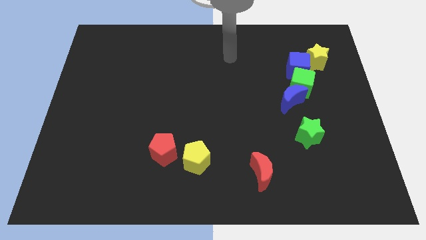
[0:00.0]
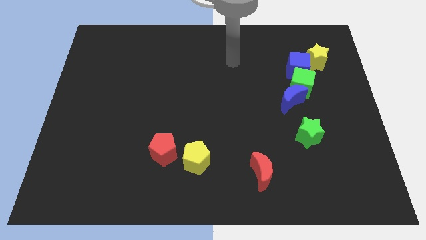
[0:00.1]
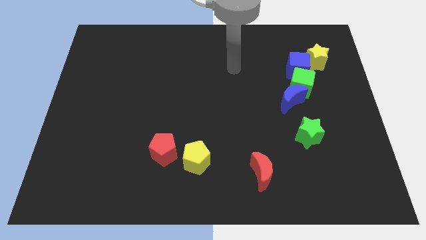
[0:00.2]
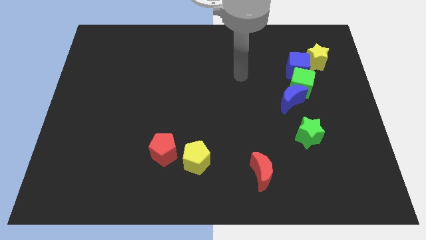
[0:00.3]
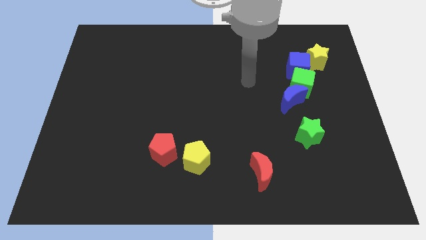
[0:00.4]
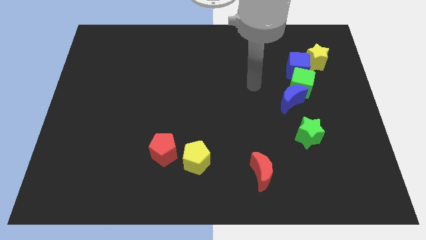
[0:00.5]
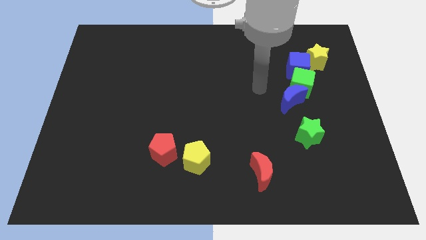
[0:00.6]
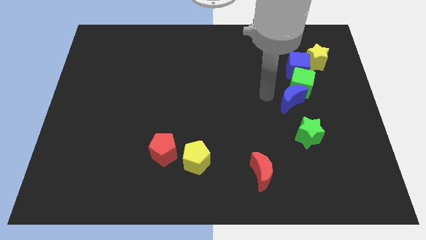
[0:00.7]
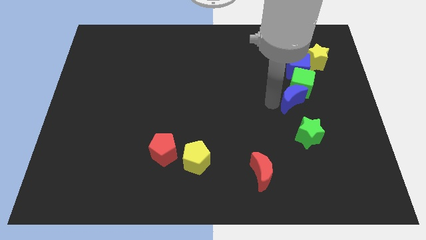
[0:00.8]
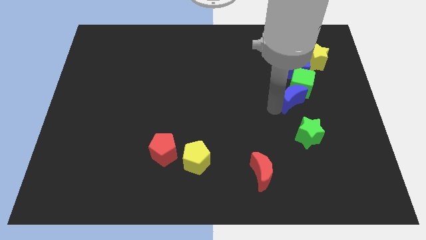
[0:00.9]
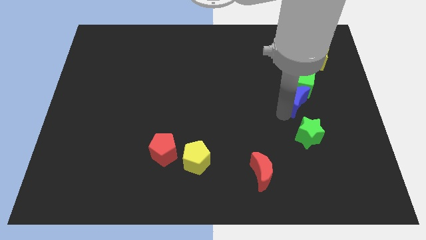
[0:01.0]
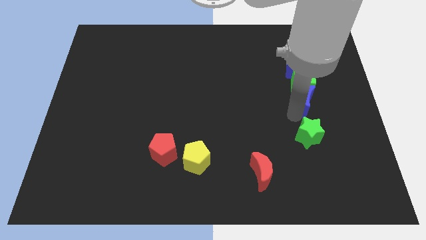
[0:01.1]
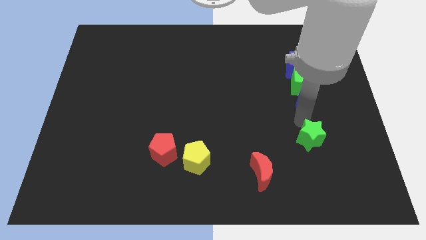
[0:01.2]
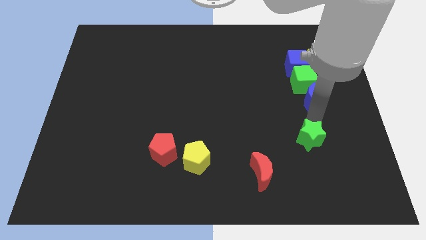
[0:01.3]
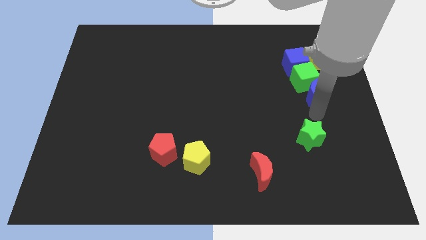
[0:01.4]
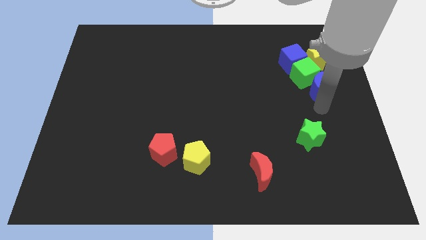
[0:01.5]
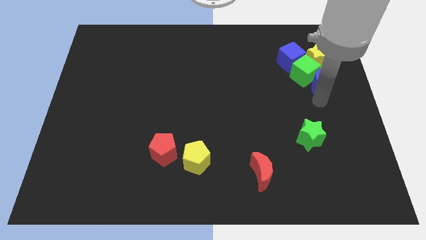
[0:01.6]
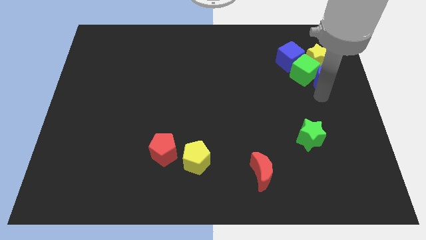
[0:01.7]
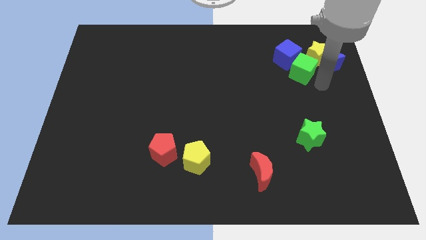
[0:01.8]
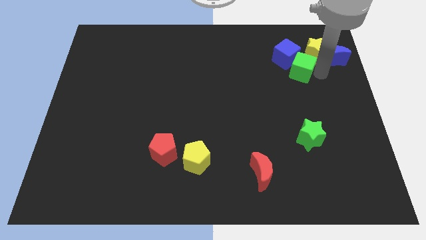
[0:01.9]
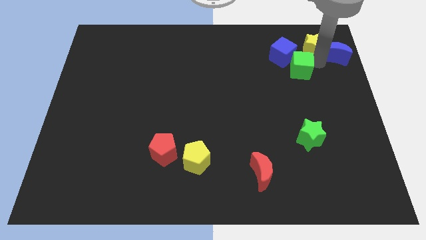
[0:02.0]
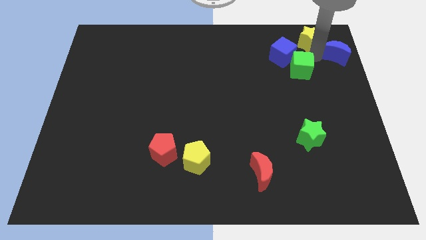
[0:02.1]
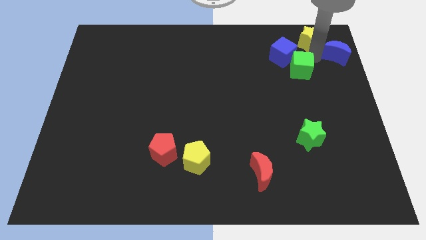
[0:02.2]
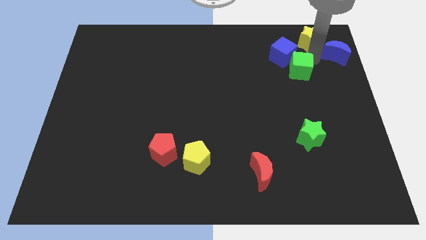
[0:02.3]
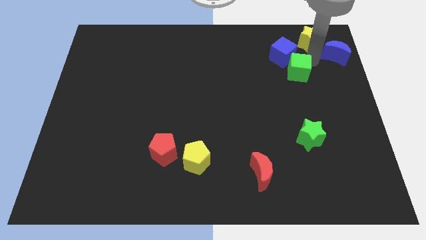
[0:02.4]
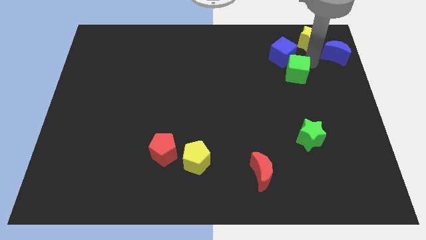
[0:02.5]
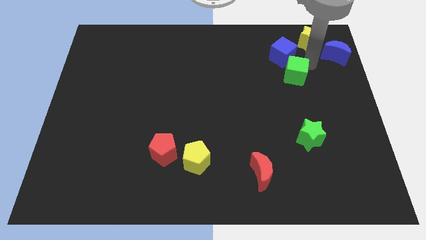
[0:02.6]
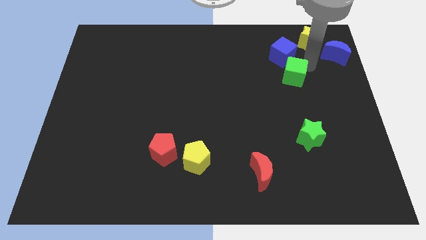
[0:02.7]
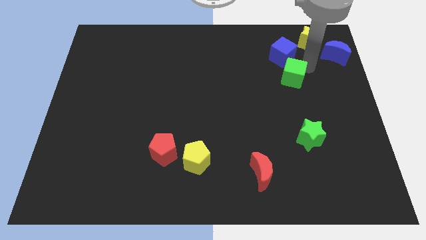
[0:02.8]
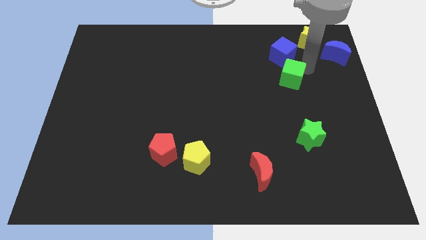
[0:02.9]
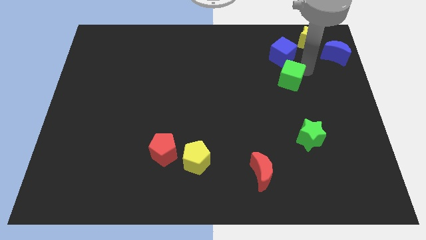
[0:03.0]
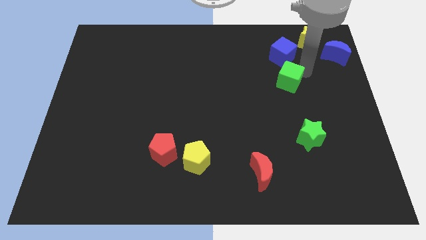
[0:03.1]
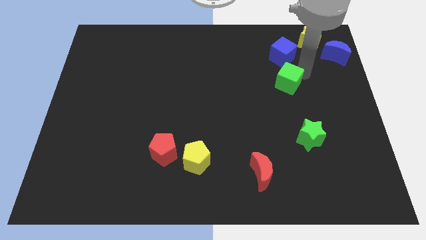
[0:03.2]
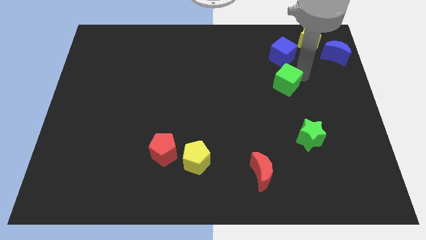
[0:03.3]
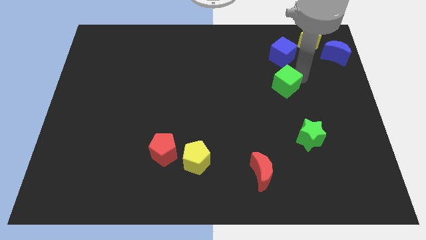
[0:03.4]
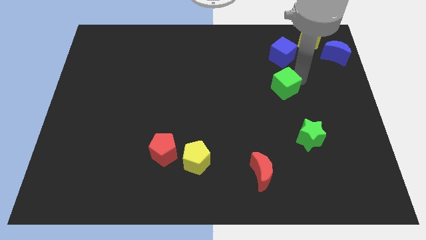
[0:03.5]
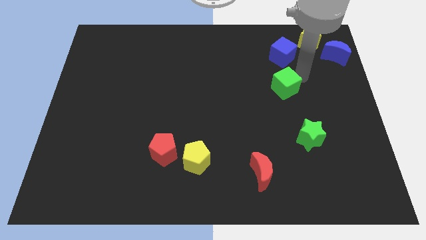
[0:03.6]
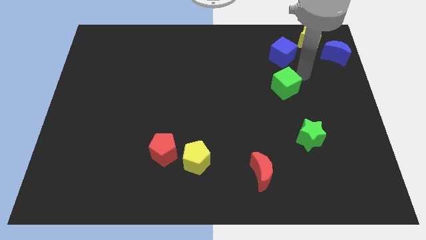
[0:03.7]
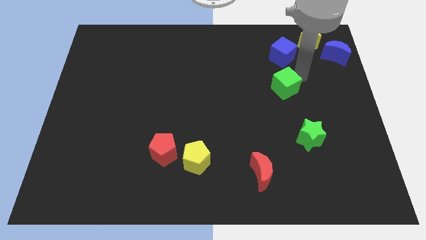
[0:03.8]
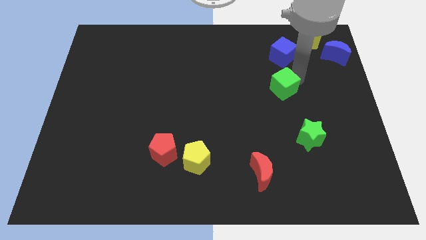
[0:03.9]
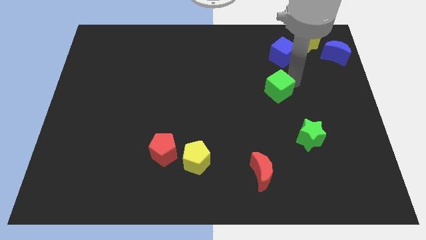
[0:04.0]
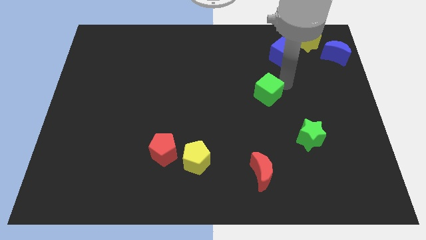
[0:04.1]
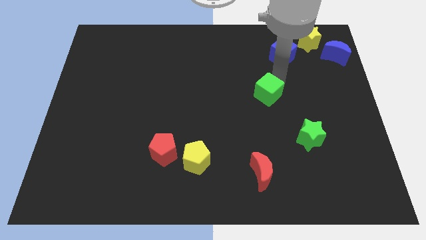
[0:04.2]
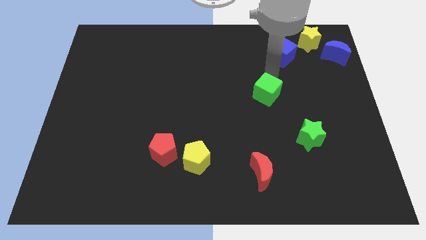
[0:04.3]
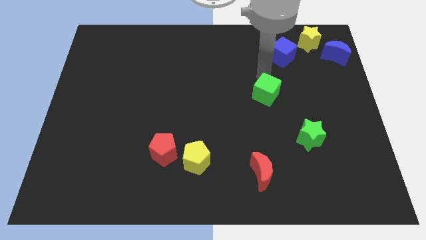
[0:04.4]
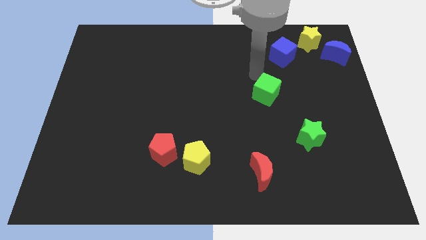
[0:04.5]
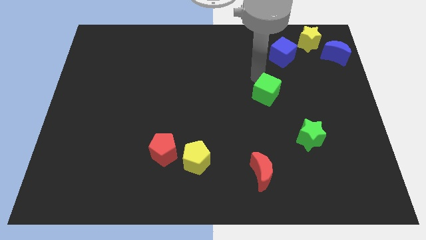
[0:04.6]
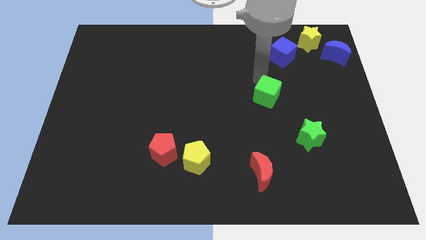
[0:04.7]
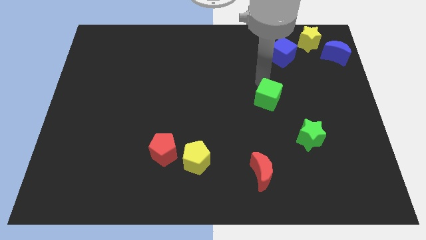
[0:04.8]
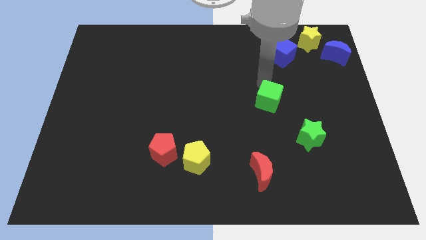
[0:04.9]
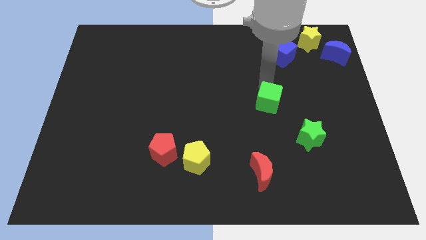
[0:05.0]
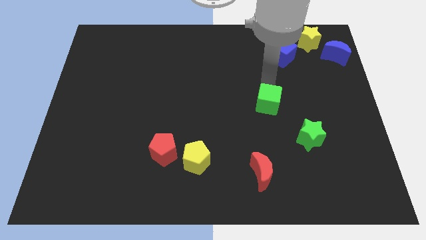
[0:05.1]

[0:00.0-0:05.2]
push the green cube to the top left of the green star

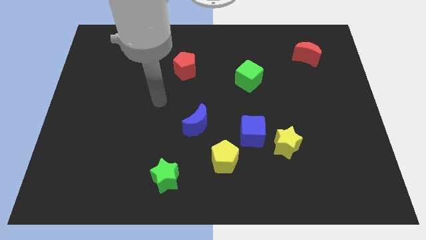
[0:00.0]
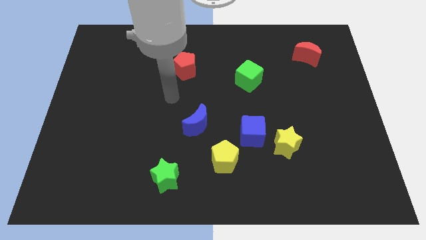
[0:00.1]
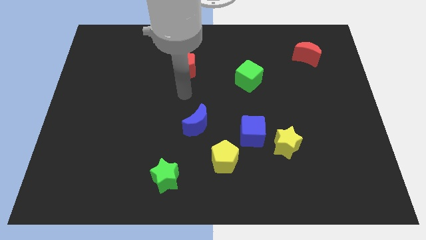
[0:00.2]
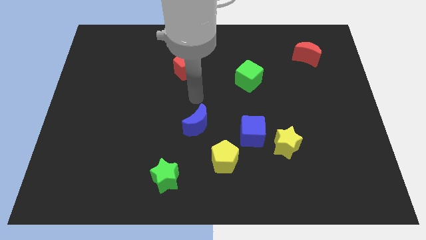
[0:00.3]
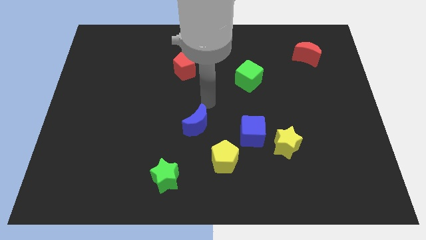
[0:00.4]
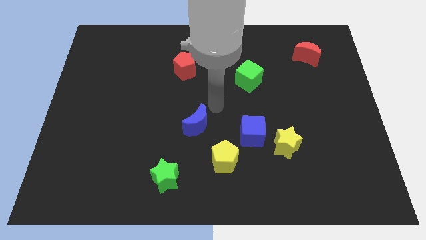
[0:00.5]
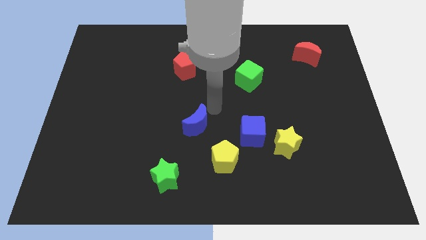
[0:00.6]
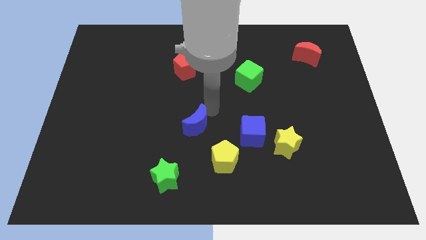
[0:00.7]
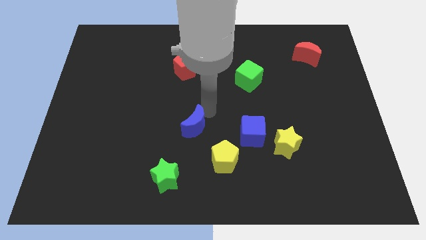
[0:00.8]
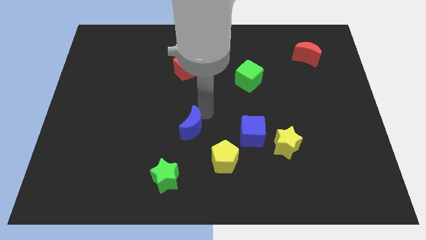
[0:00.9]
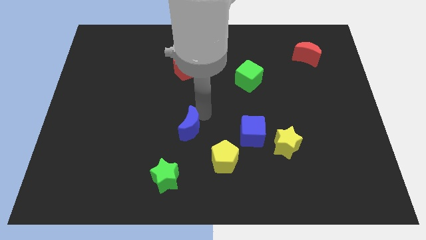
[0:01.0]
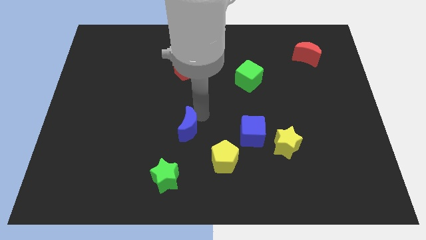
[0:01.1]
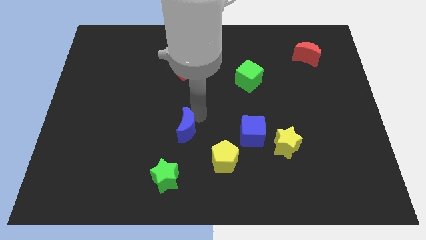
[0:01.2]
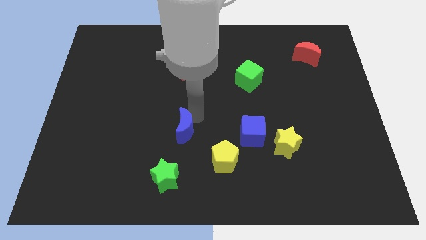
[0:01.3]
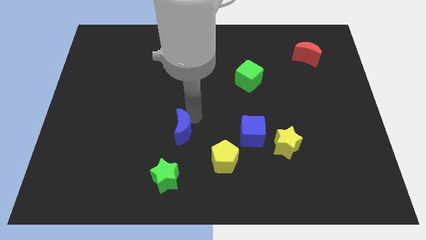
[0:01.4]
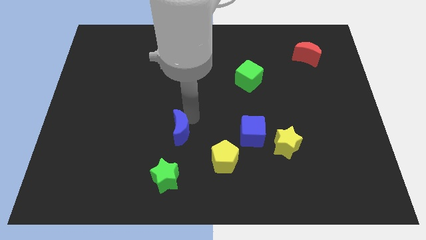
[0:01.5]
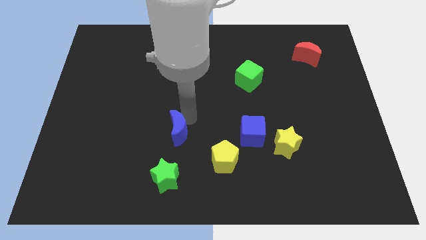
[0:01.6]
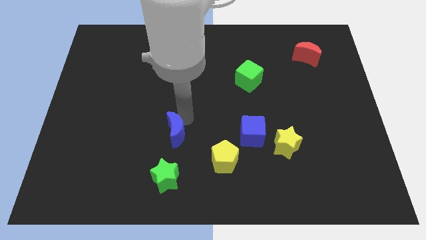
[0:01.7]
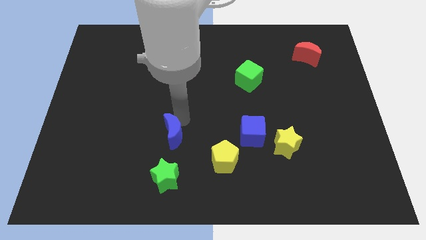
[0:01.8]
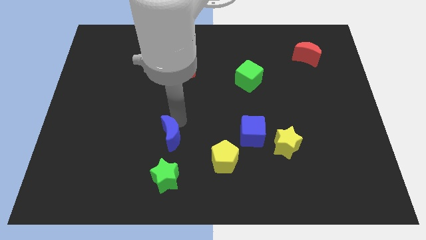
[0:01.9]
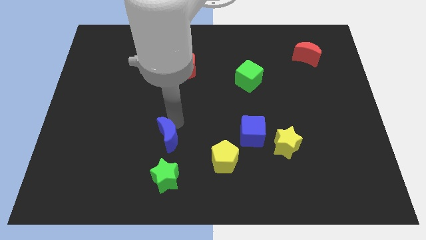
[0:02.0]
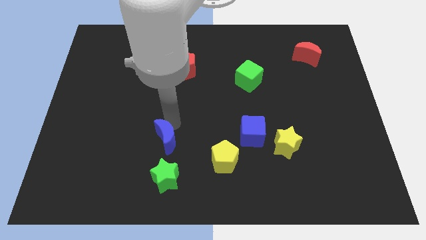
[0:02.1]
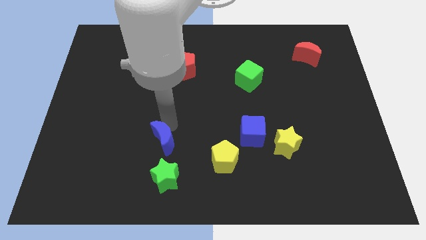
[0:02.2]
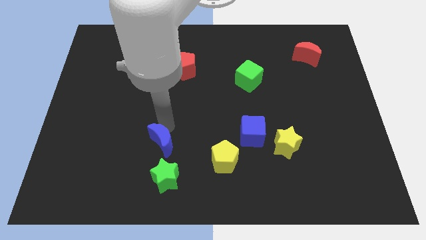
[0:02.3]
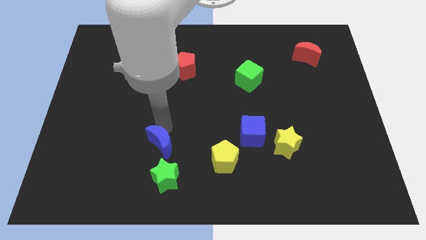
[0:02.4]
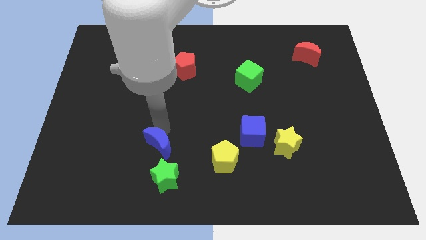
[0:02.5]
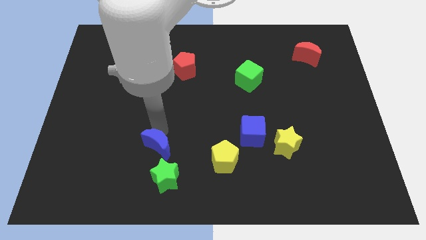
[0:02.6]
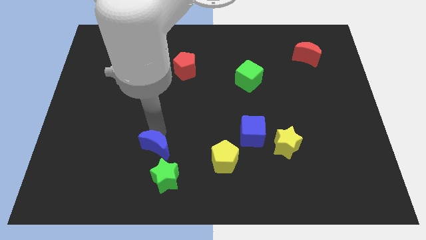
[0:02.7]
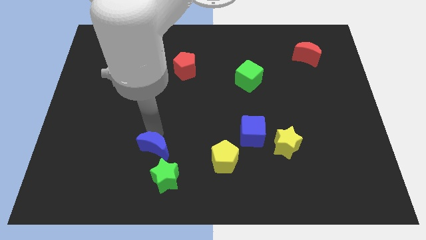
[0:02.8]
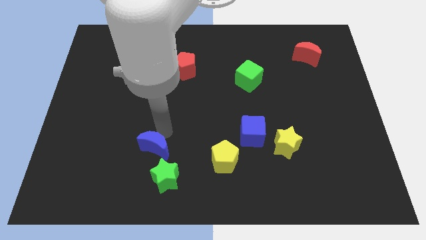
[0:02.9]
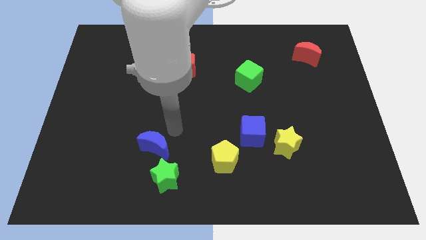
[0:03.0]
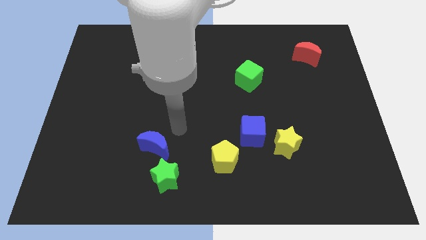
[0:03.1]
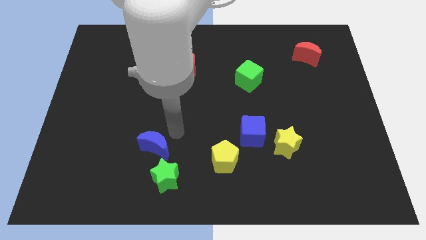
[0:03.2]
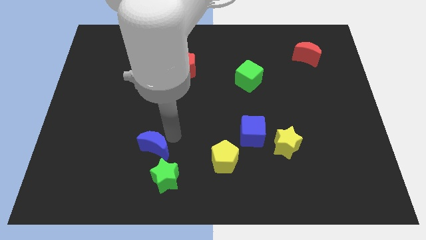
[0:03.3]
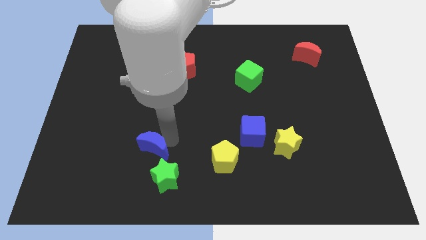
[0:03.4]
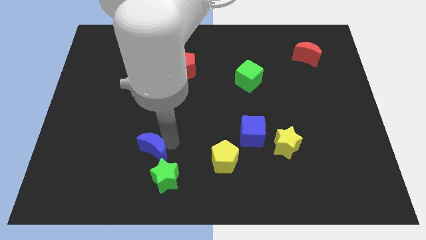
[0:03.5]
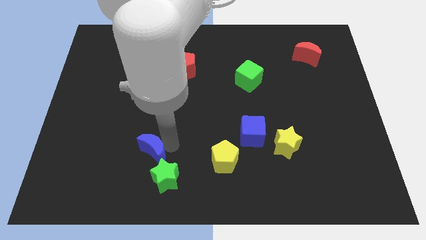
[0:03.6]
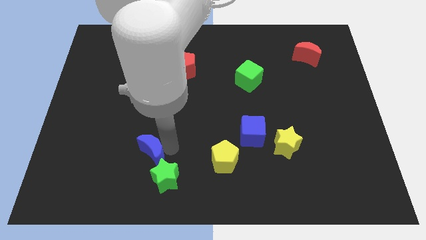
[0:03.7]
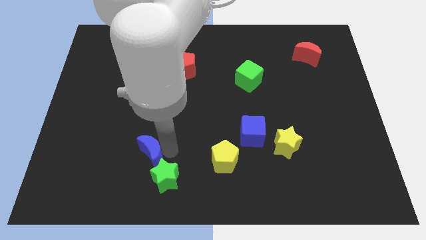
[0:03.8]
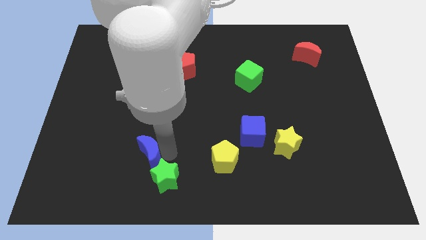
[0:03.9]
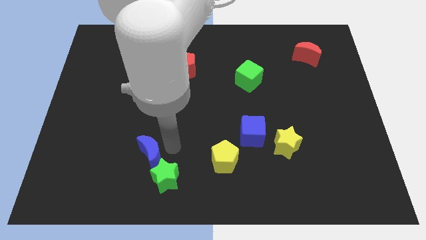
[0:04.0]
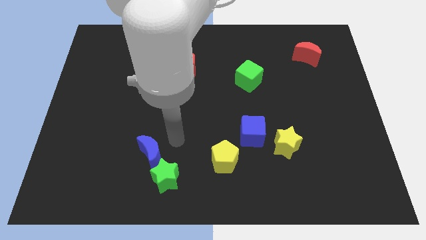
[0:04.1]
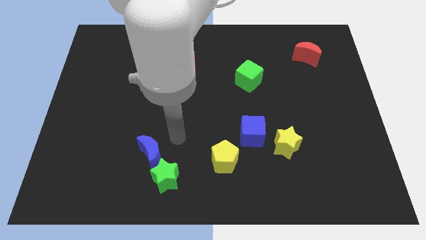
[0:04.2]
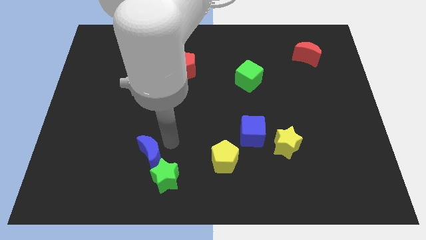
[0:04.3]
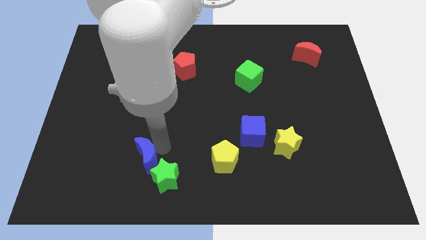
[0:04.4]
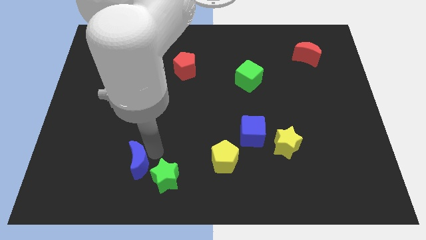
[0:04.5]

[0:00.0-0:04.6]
push the blue moon to the left of the green star
